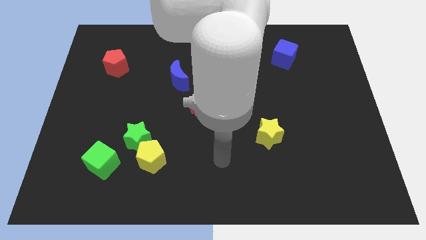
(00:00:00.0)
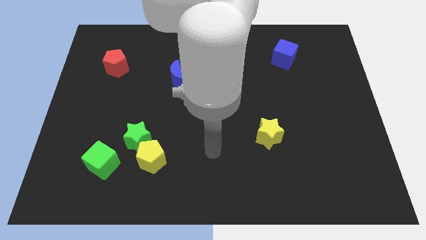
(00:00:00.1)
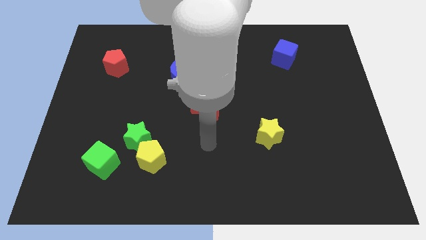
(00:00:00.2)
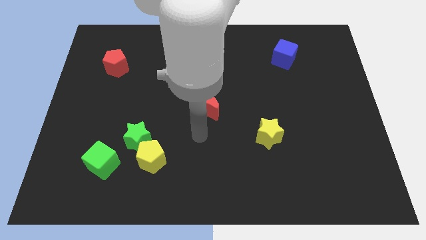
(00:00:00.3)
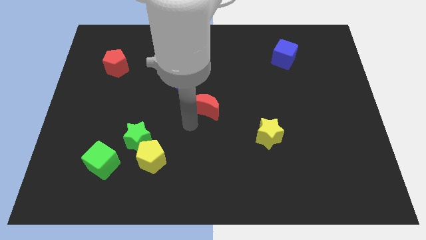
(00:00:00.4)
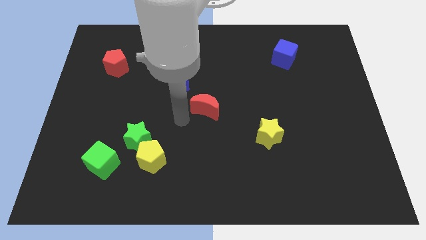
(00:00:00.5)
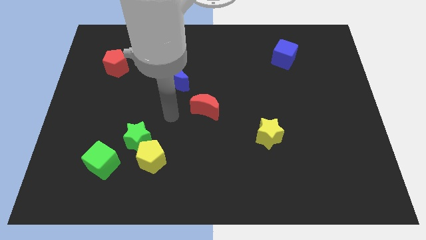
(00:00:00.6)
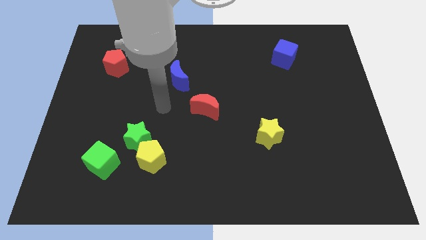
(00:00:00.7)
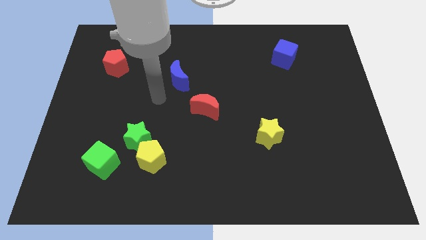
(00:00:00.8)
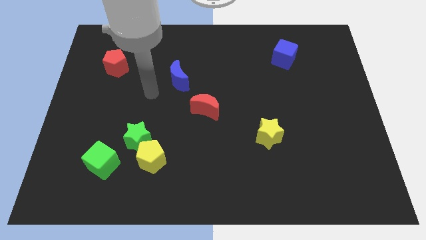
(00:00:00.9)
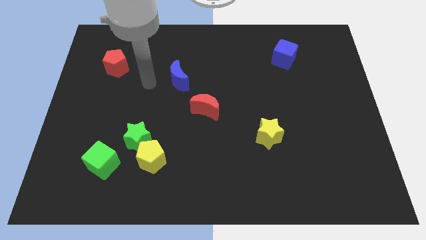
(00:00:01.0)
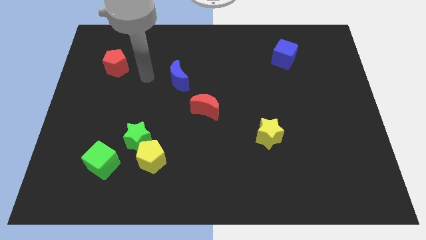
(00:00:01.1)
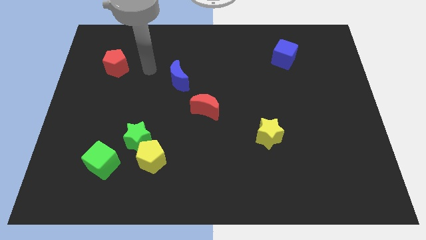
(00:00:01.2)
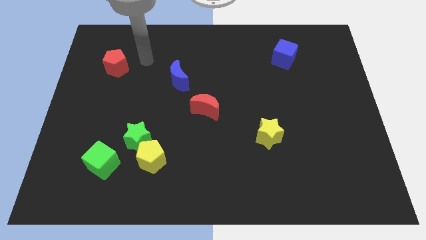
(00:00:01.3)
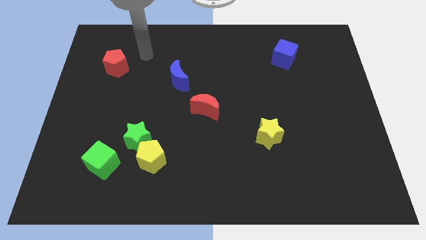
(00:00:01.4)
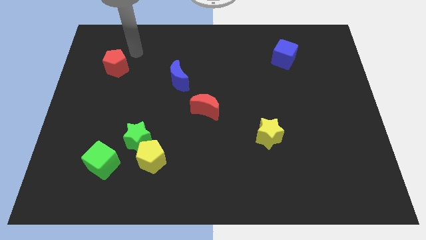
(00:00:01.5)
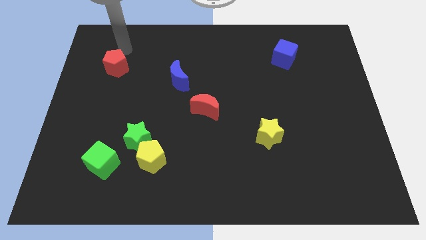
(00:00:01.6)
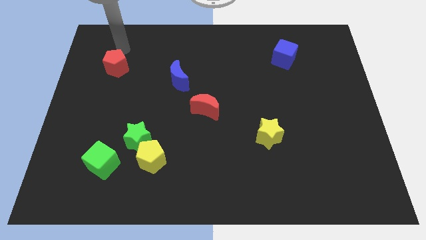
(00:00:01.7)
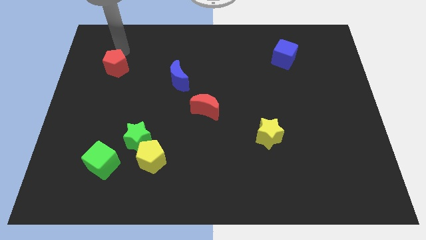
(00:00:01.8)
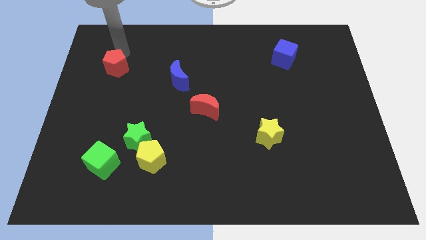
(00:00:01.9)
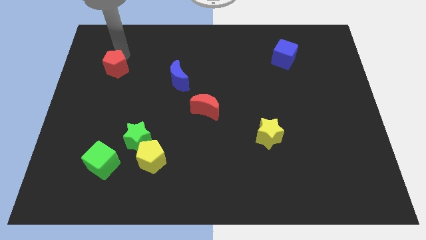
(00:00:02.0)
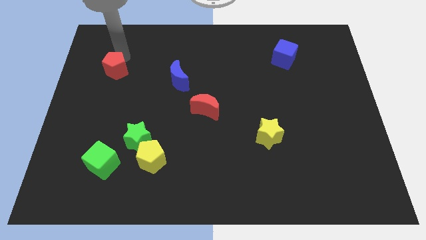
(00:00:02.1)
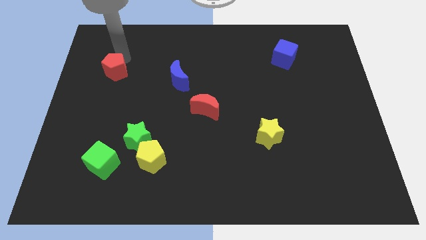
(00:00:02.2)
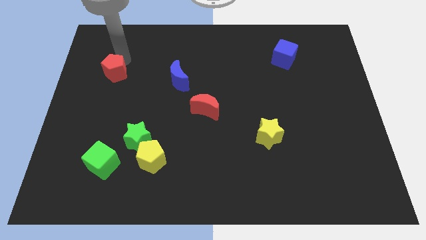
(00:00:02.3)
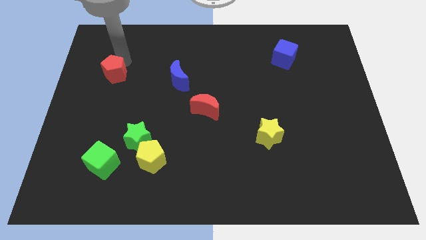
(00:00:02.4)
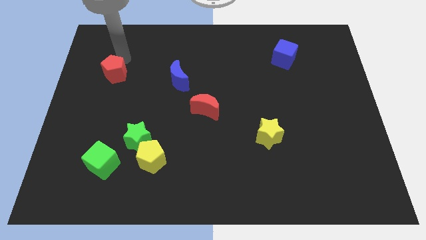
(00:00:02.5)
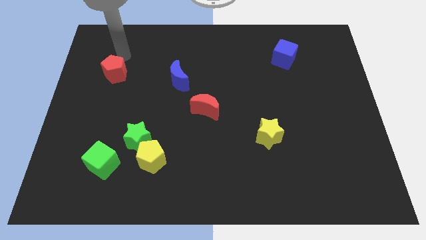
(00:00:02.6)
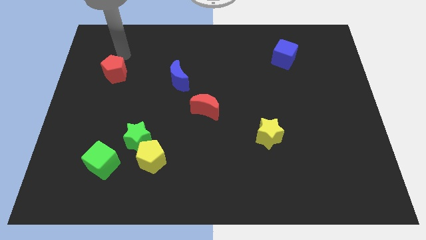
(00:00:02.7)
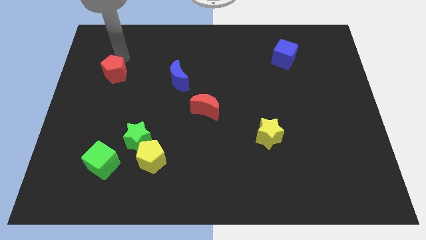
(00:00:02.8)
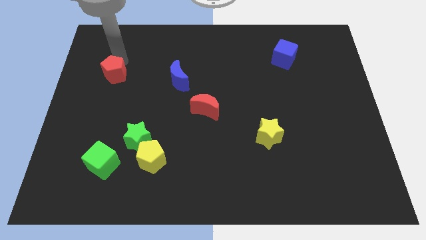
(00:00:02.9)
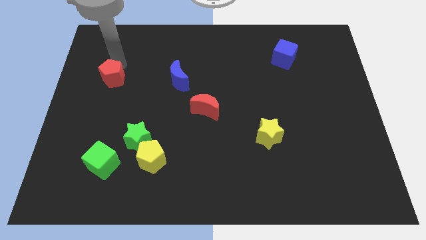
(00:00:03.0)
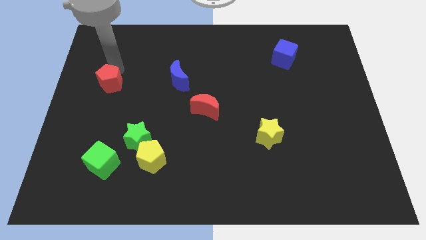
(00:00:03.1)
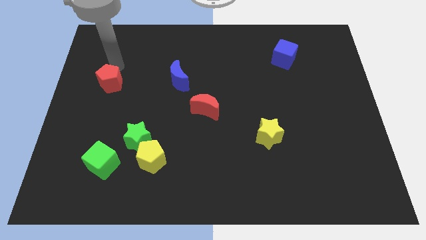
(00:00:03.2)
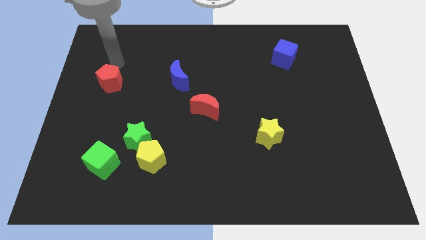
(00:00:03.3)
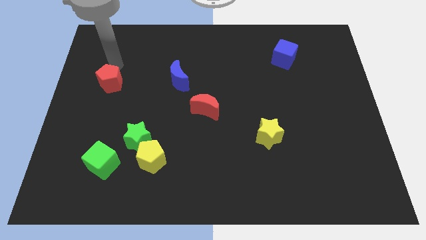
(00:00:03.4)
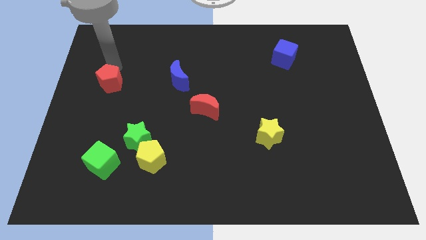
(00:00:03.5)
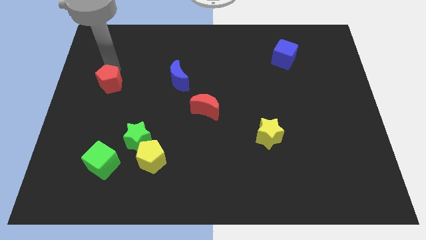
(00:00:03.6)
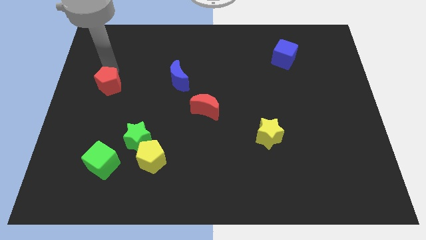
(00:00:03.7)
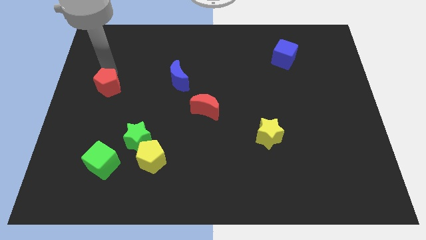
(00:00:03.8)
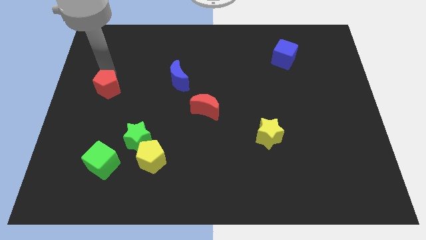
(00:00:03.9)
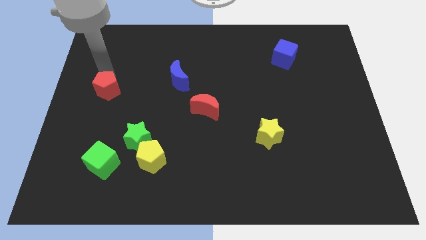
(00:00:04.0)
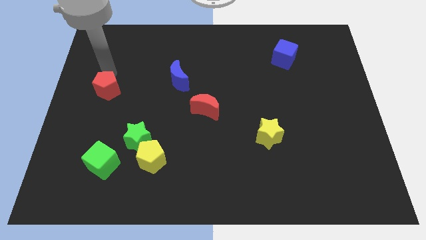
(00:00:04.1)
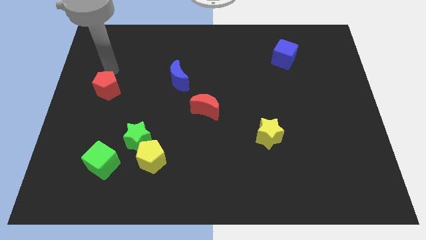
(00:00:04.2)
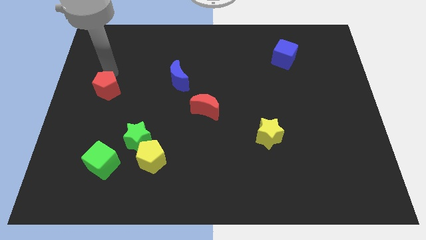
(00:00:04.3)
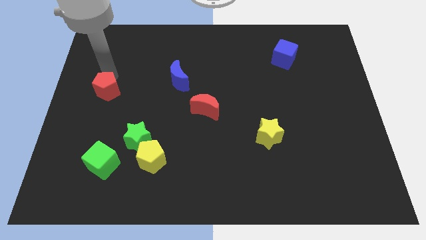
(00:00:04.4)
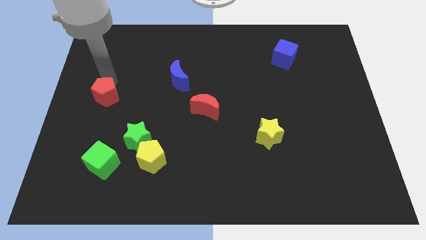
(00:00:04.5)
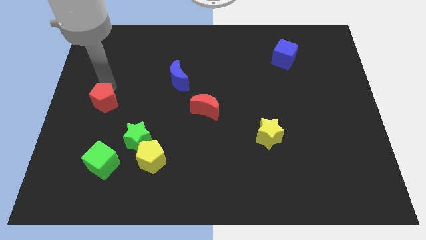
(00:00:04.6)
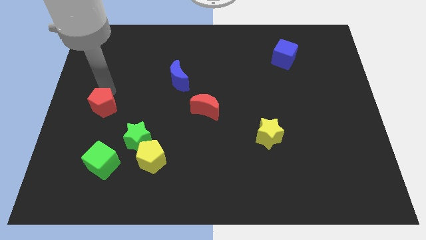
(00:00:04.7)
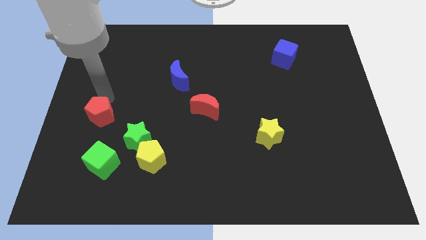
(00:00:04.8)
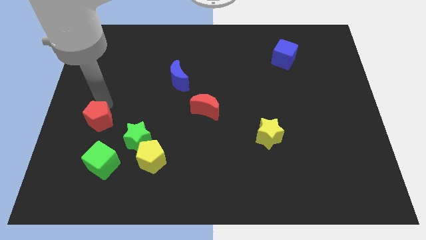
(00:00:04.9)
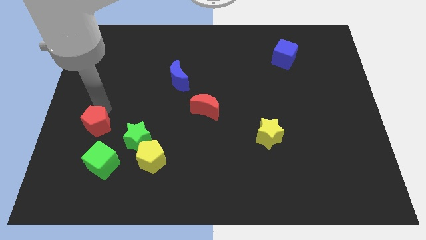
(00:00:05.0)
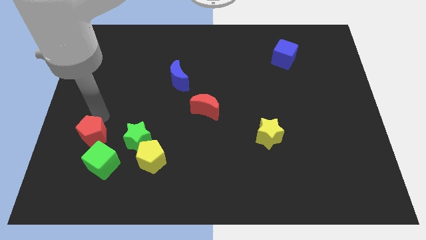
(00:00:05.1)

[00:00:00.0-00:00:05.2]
slide the red pentagon down

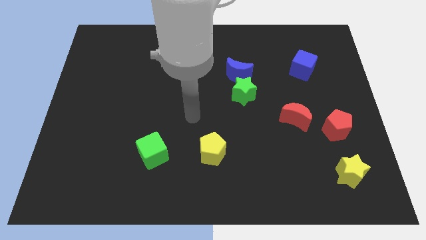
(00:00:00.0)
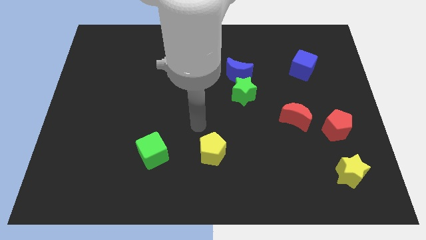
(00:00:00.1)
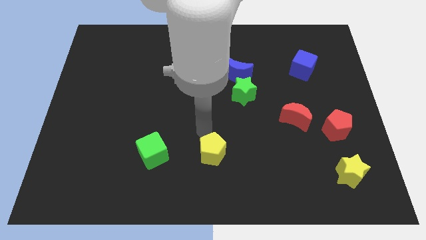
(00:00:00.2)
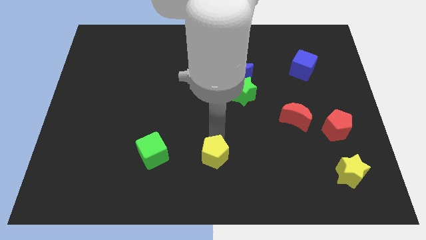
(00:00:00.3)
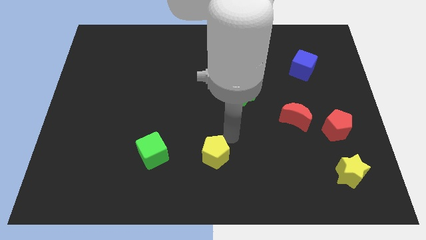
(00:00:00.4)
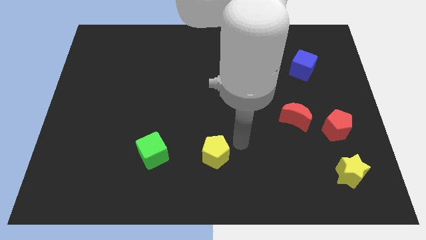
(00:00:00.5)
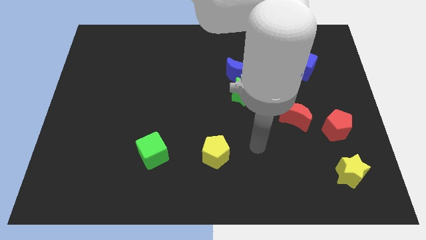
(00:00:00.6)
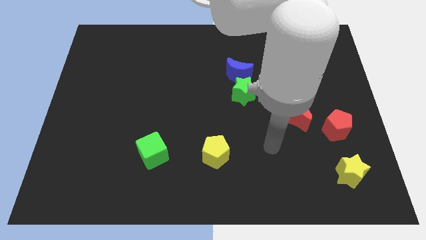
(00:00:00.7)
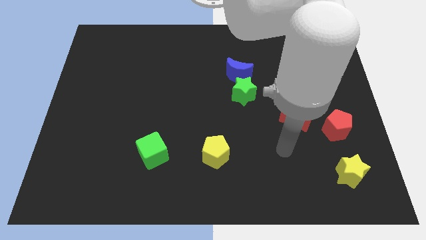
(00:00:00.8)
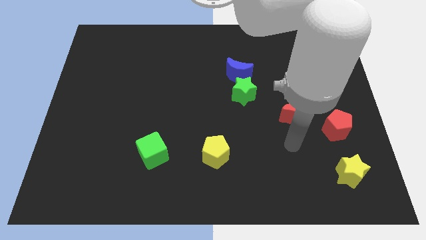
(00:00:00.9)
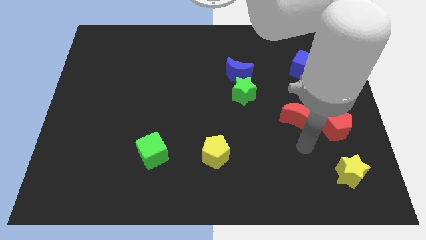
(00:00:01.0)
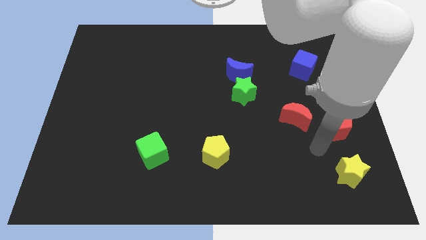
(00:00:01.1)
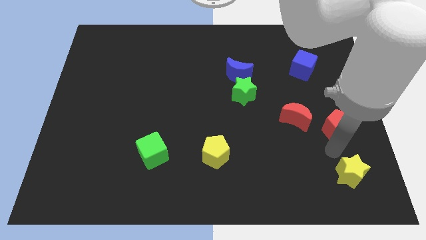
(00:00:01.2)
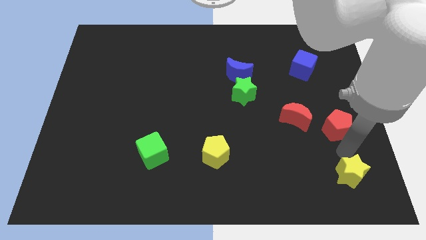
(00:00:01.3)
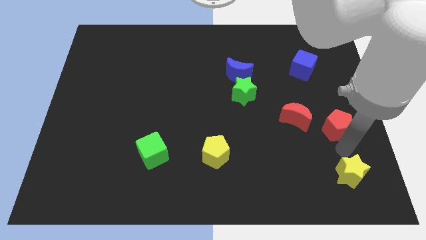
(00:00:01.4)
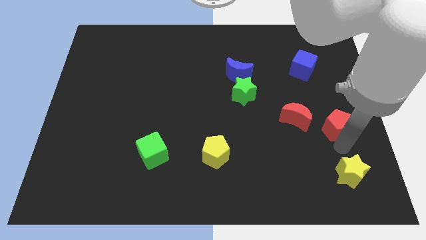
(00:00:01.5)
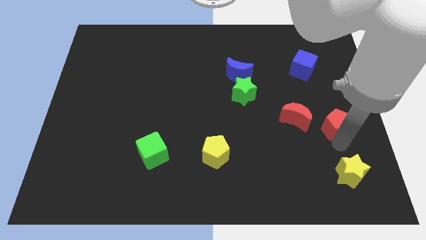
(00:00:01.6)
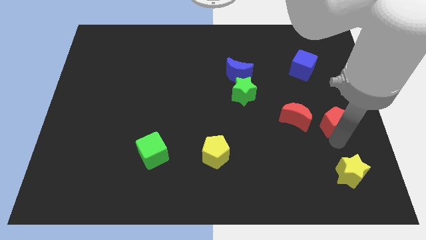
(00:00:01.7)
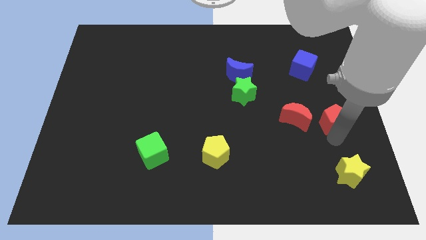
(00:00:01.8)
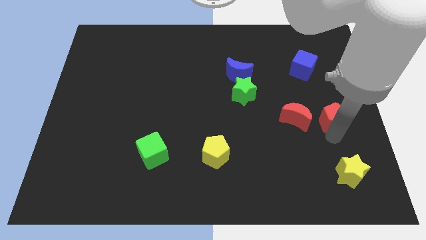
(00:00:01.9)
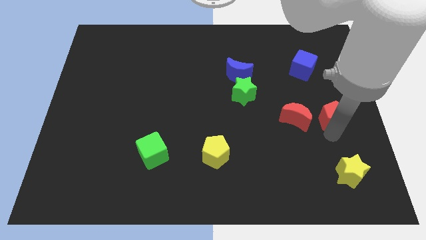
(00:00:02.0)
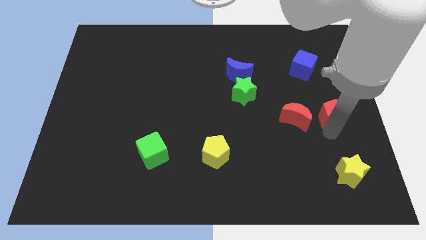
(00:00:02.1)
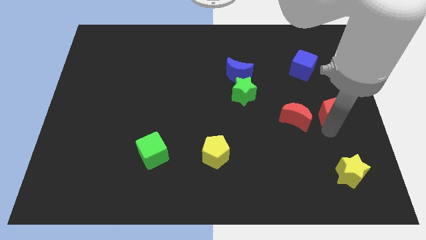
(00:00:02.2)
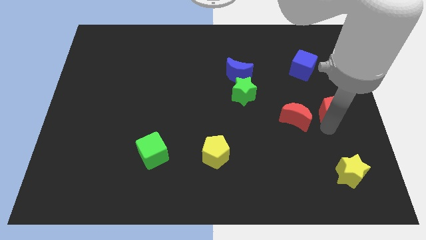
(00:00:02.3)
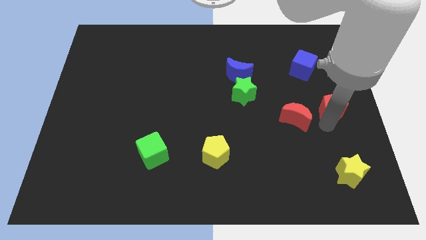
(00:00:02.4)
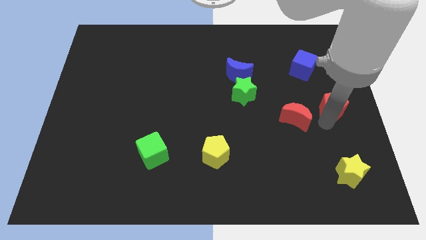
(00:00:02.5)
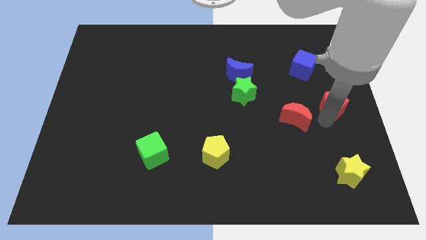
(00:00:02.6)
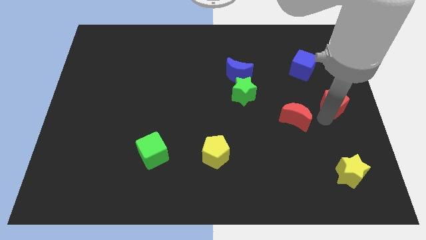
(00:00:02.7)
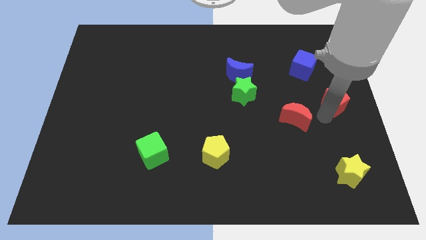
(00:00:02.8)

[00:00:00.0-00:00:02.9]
slightly move the red pentagon up
